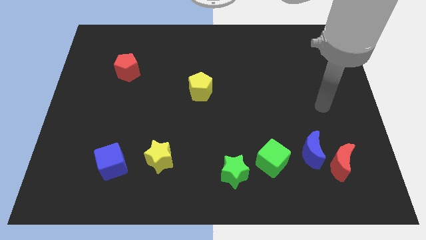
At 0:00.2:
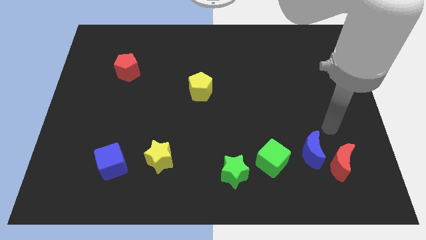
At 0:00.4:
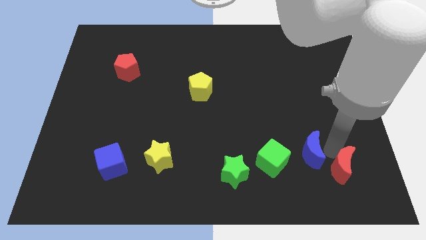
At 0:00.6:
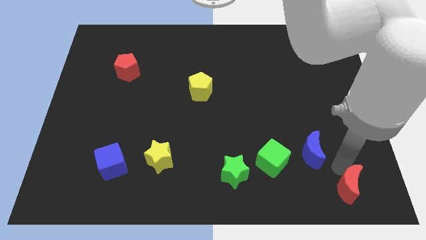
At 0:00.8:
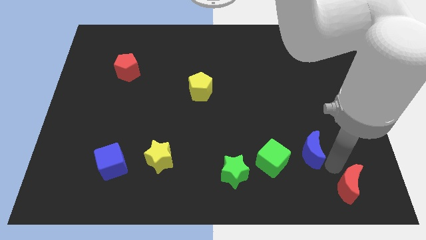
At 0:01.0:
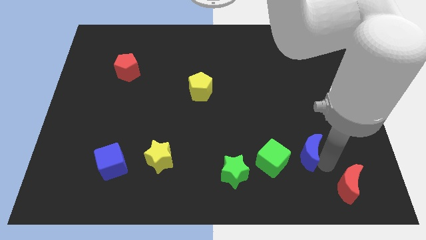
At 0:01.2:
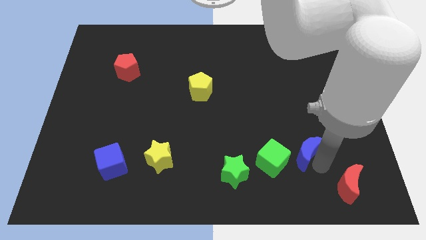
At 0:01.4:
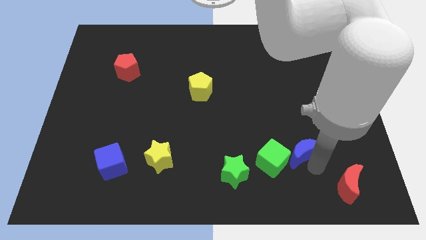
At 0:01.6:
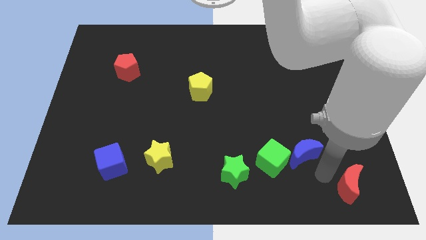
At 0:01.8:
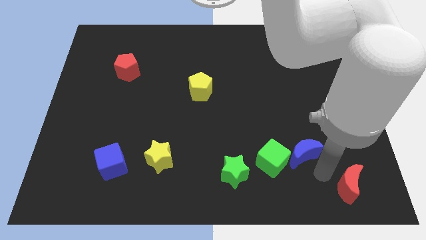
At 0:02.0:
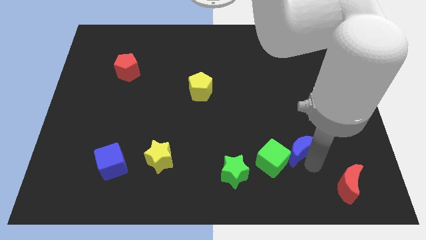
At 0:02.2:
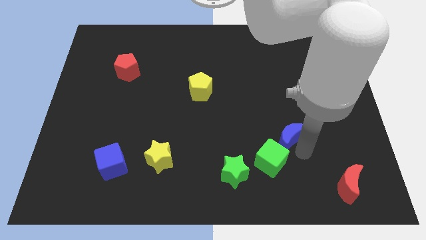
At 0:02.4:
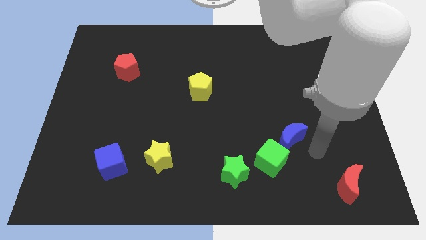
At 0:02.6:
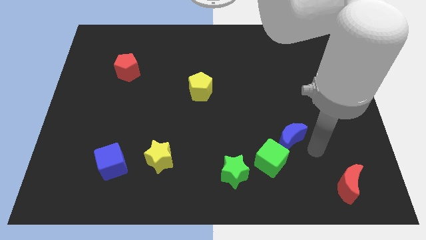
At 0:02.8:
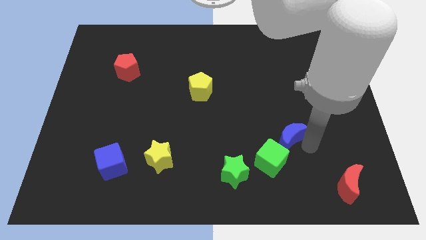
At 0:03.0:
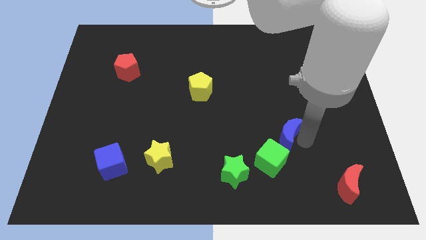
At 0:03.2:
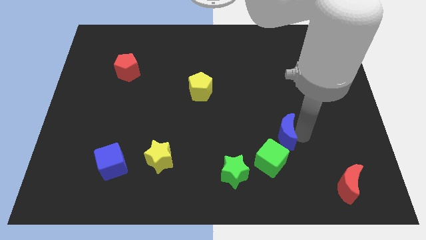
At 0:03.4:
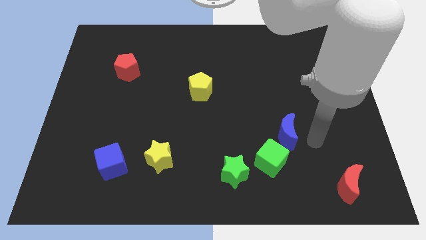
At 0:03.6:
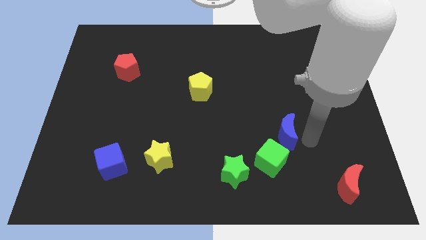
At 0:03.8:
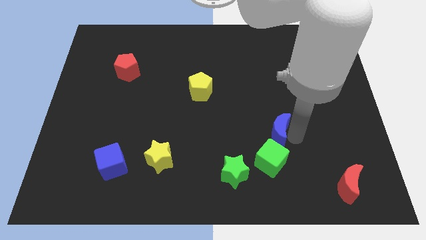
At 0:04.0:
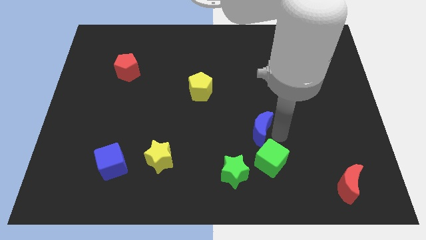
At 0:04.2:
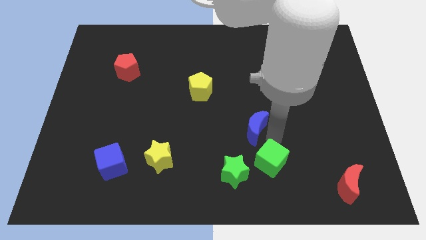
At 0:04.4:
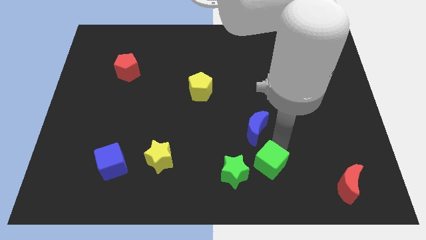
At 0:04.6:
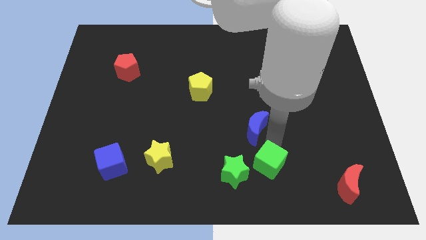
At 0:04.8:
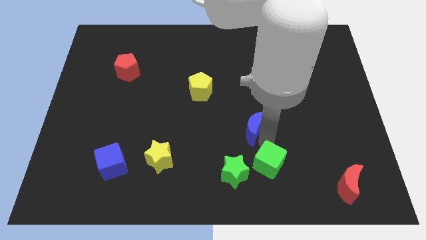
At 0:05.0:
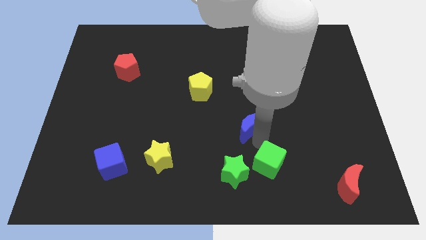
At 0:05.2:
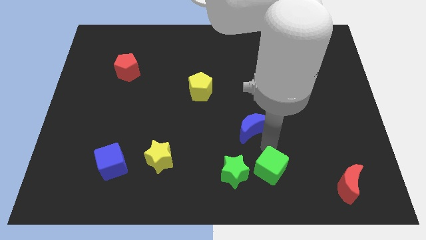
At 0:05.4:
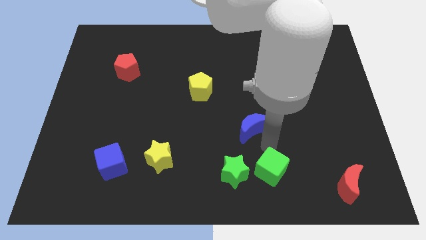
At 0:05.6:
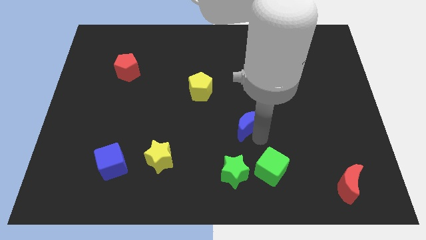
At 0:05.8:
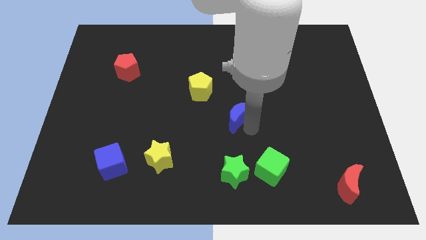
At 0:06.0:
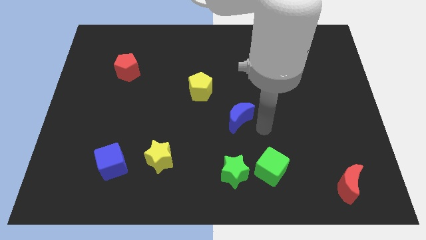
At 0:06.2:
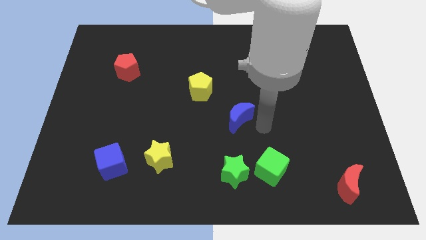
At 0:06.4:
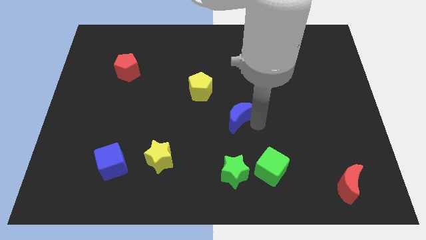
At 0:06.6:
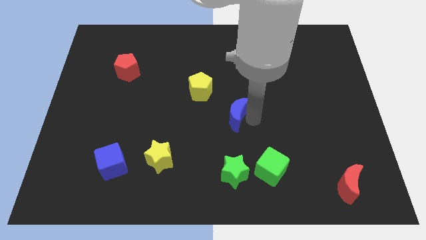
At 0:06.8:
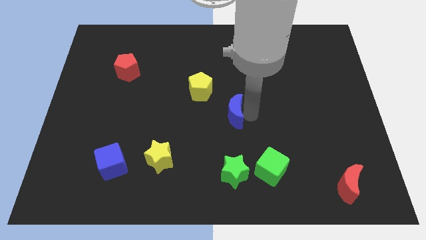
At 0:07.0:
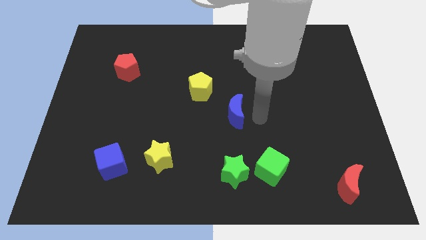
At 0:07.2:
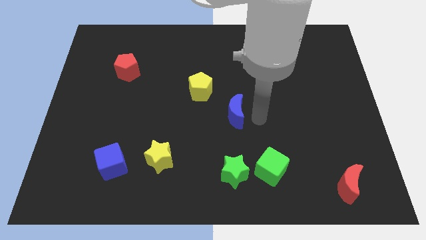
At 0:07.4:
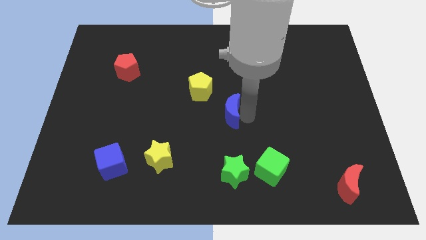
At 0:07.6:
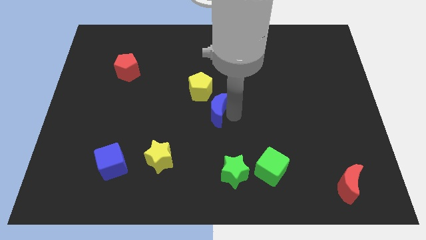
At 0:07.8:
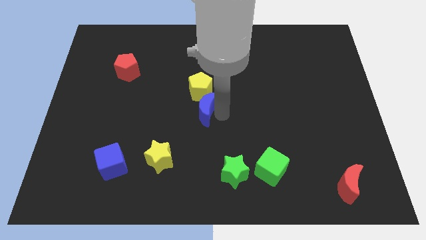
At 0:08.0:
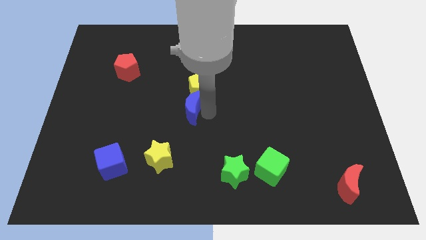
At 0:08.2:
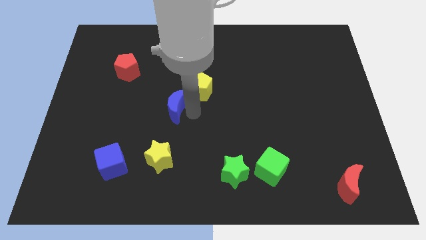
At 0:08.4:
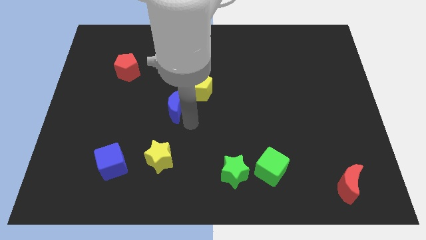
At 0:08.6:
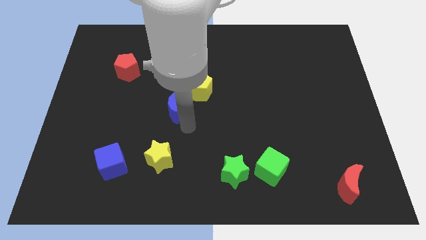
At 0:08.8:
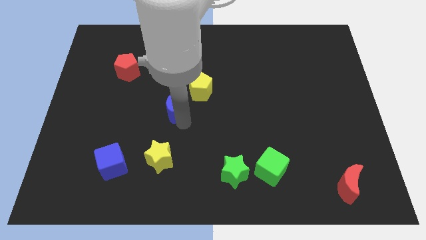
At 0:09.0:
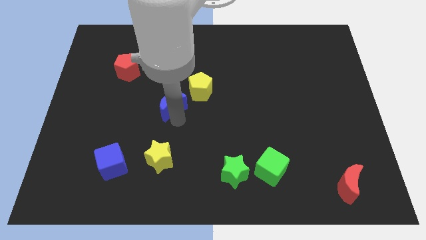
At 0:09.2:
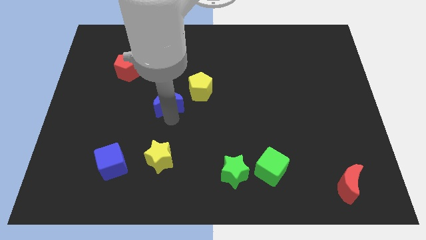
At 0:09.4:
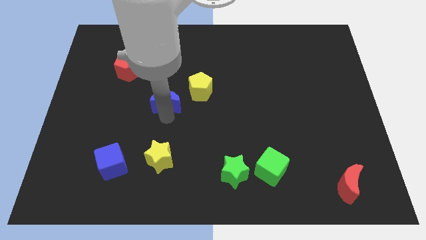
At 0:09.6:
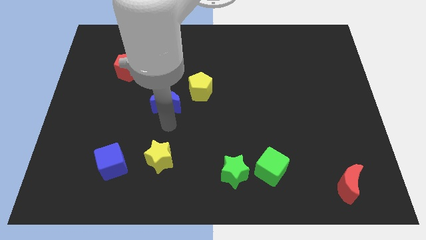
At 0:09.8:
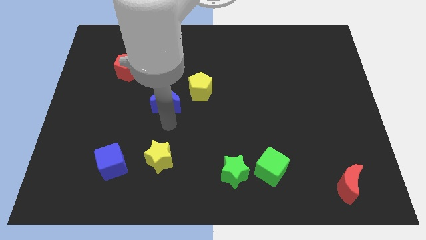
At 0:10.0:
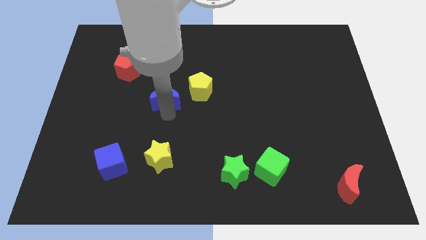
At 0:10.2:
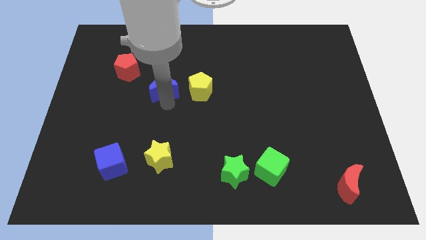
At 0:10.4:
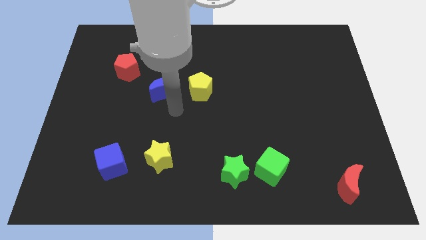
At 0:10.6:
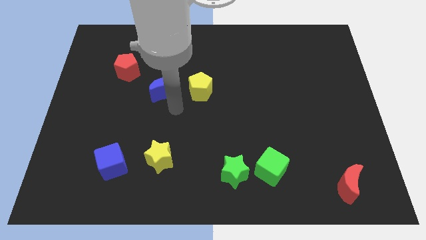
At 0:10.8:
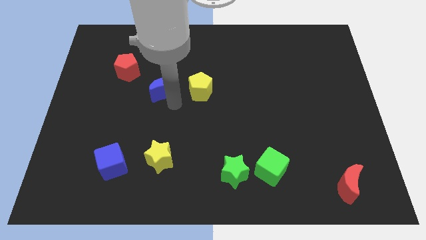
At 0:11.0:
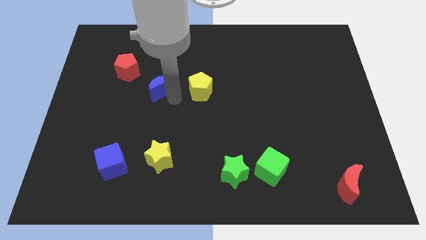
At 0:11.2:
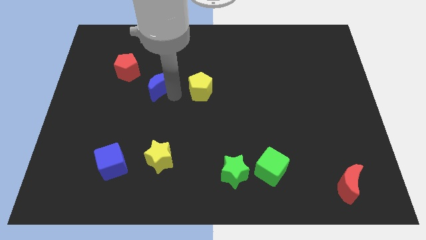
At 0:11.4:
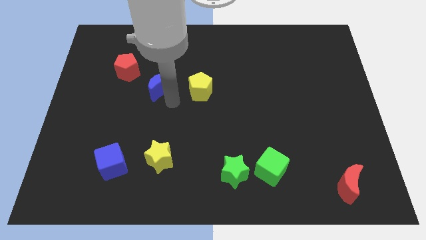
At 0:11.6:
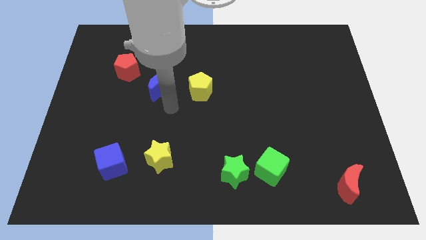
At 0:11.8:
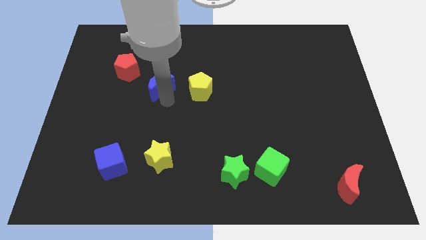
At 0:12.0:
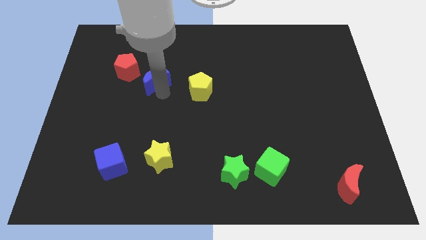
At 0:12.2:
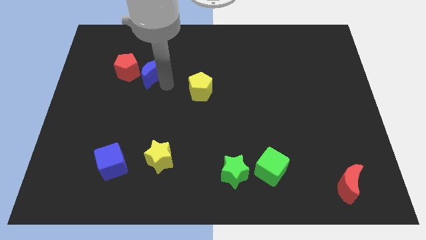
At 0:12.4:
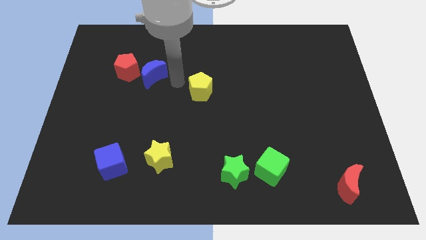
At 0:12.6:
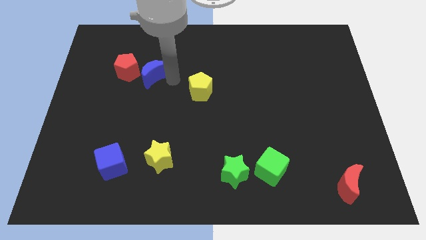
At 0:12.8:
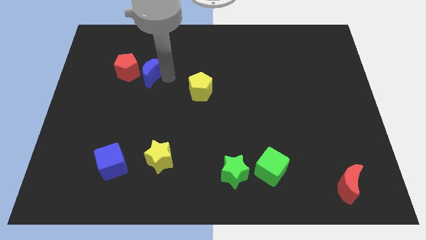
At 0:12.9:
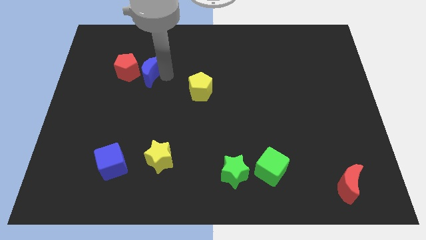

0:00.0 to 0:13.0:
put the blue moon to the red pentagon

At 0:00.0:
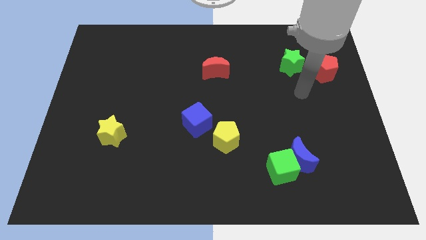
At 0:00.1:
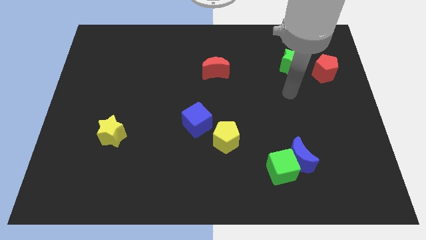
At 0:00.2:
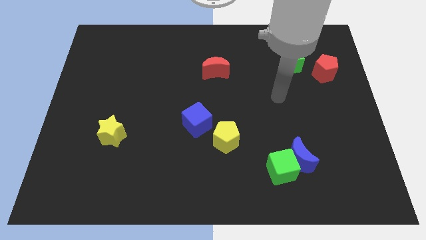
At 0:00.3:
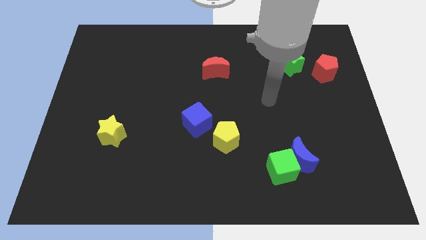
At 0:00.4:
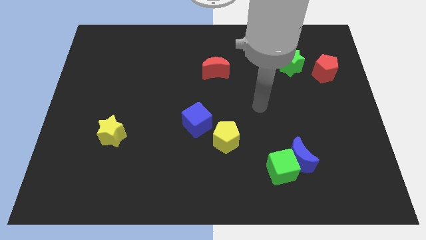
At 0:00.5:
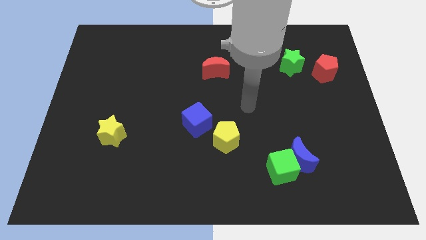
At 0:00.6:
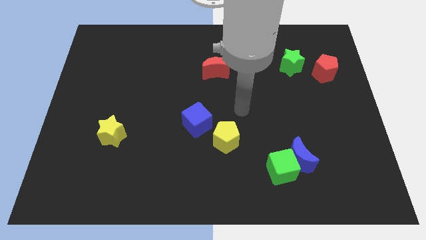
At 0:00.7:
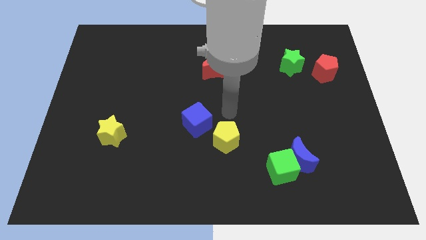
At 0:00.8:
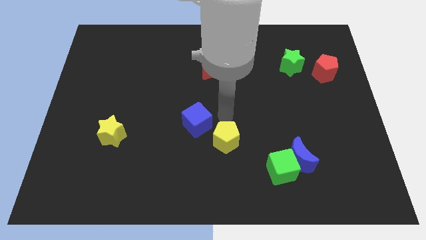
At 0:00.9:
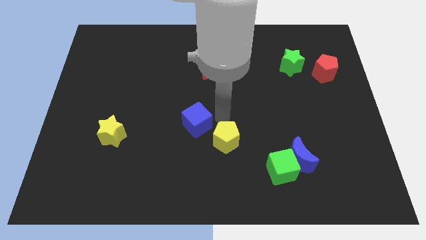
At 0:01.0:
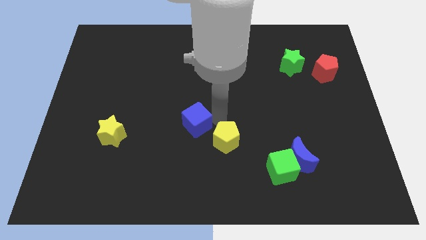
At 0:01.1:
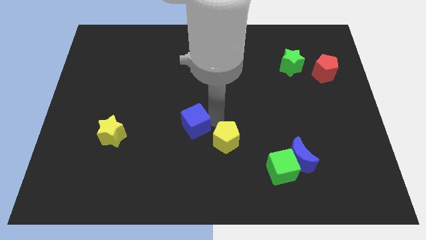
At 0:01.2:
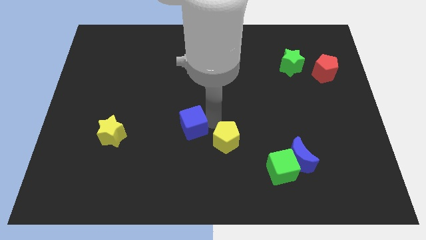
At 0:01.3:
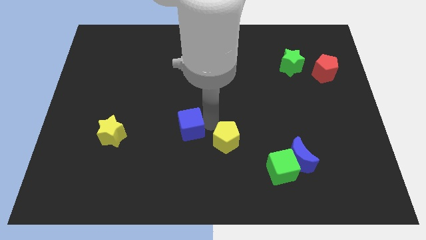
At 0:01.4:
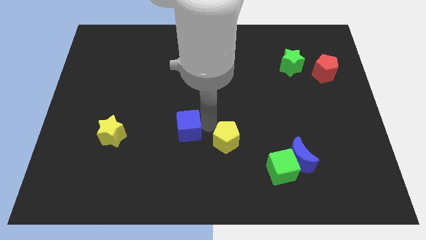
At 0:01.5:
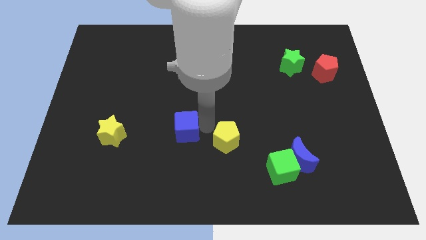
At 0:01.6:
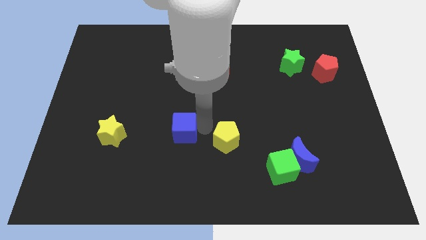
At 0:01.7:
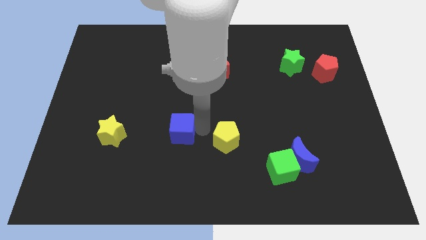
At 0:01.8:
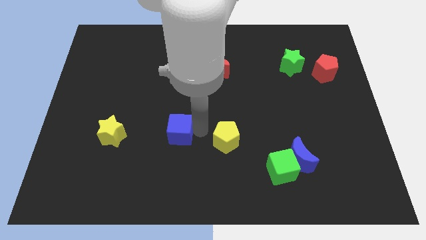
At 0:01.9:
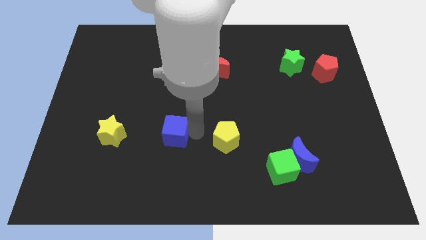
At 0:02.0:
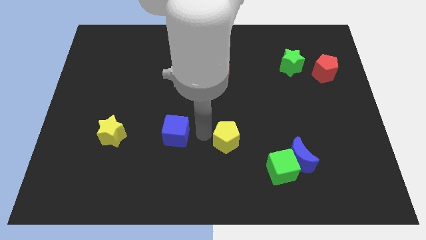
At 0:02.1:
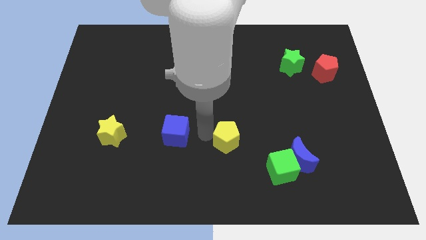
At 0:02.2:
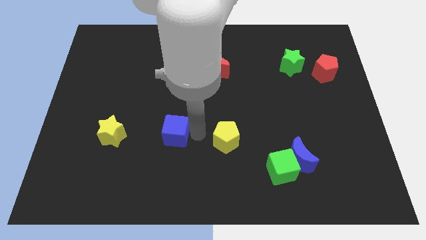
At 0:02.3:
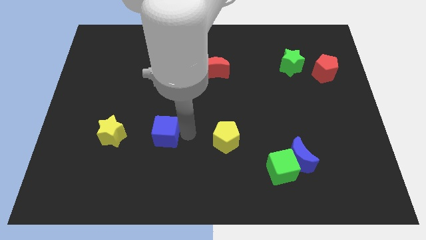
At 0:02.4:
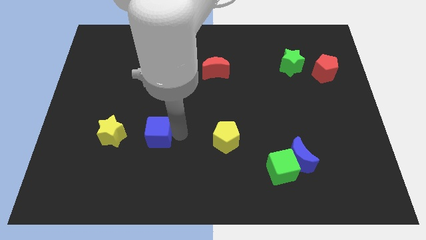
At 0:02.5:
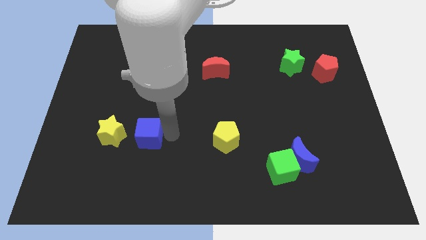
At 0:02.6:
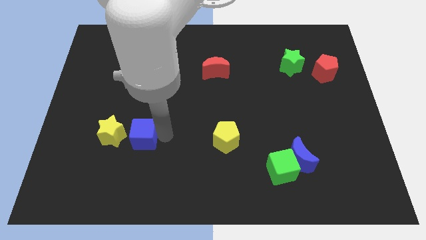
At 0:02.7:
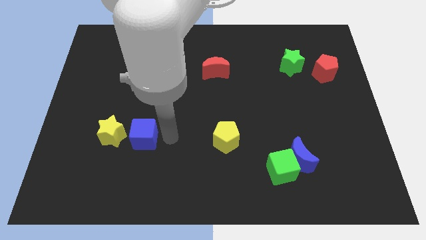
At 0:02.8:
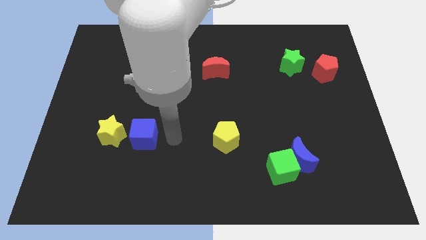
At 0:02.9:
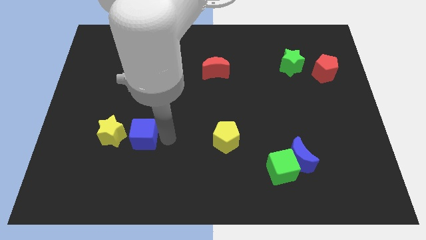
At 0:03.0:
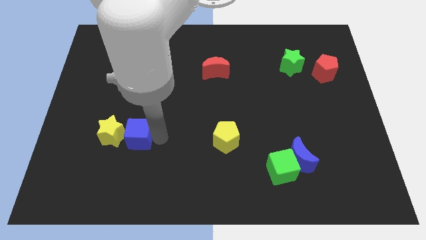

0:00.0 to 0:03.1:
slide the blue cube close to the yellow star
